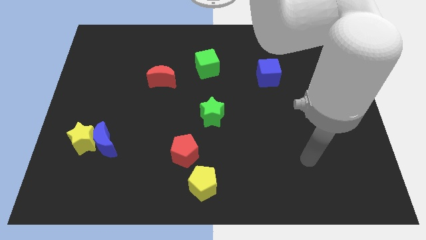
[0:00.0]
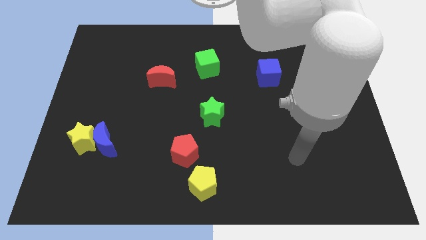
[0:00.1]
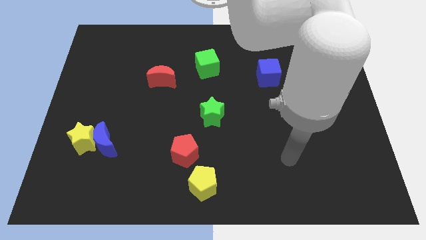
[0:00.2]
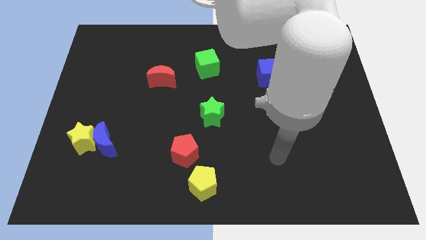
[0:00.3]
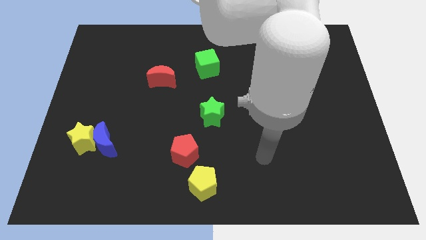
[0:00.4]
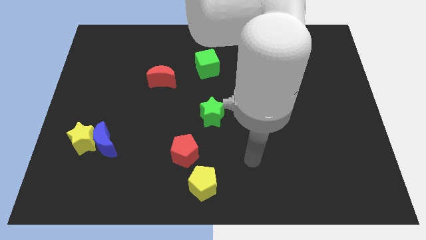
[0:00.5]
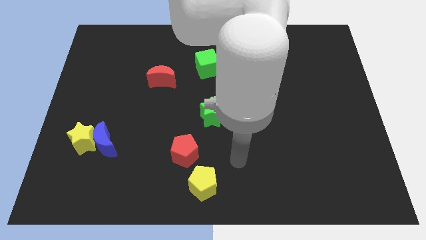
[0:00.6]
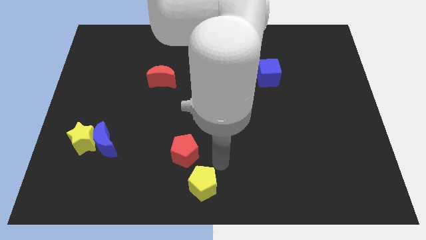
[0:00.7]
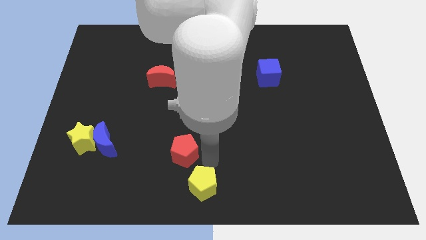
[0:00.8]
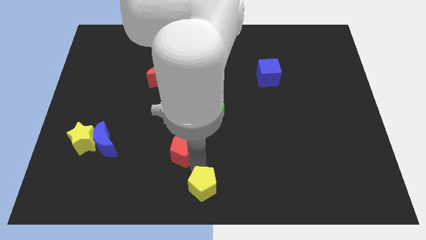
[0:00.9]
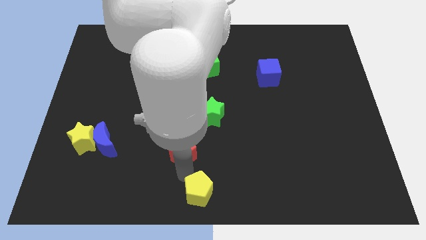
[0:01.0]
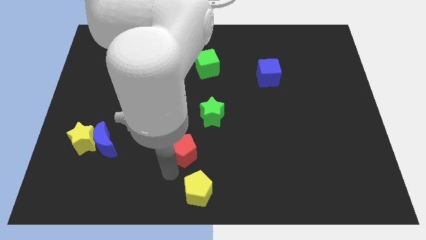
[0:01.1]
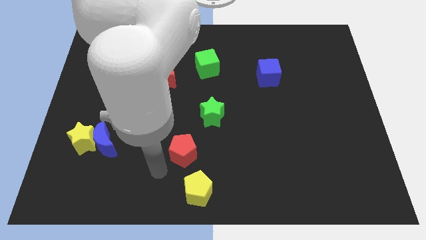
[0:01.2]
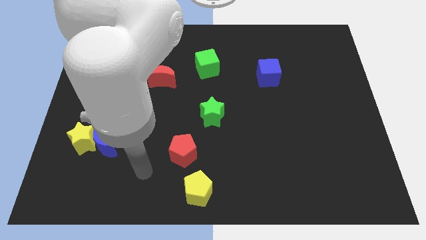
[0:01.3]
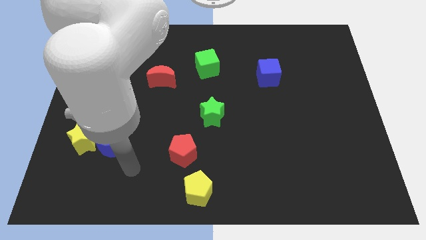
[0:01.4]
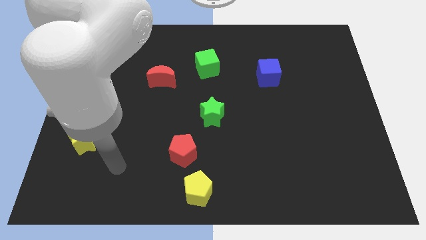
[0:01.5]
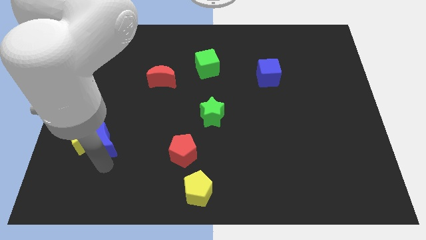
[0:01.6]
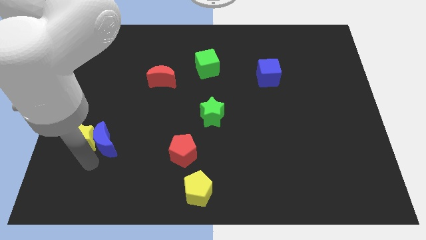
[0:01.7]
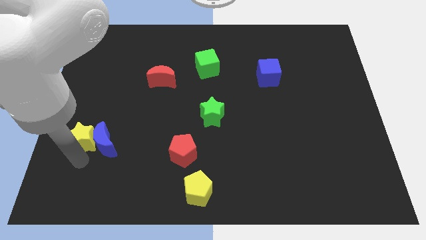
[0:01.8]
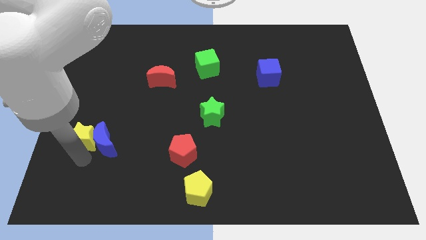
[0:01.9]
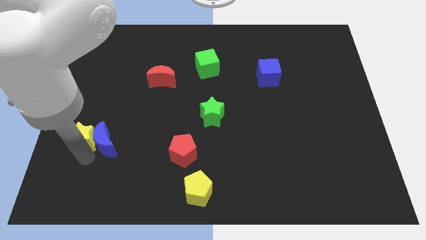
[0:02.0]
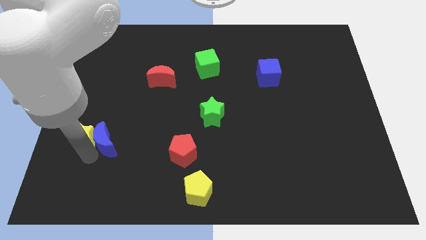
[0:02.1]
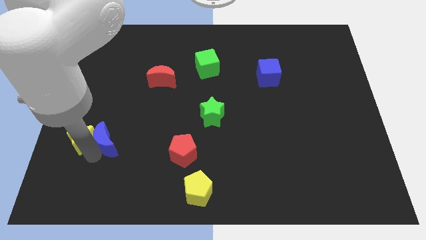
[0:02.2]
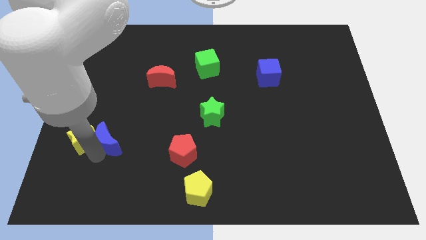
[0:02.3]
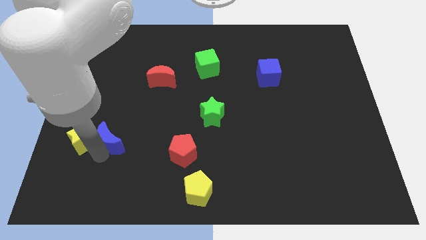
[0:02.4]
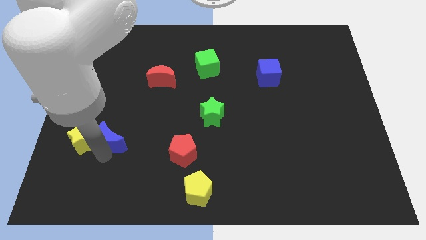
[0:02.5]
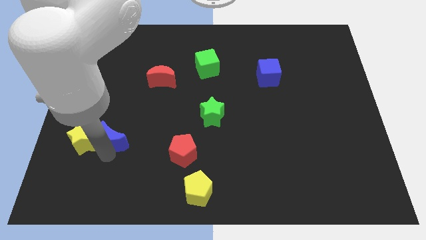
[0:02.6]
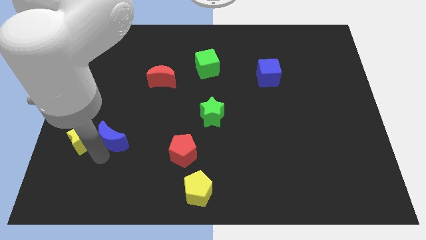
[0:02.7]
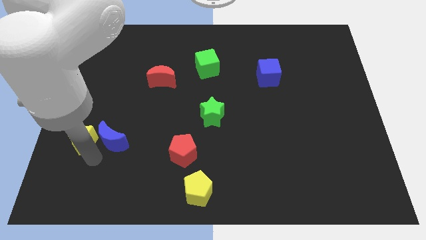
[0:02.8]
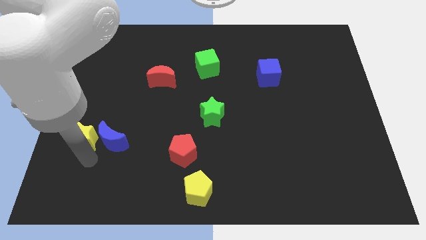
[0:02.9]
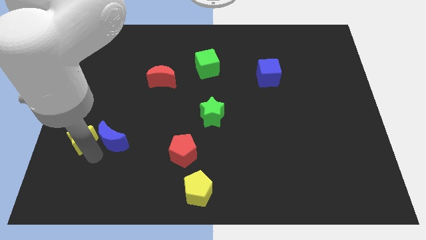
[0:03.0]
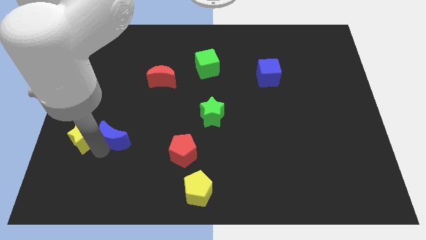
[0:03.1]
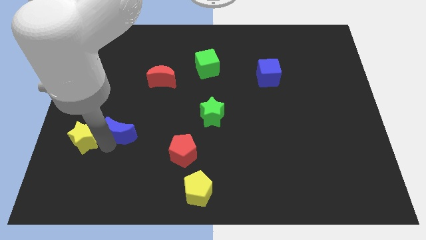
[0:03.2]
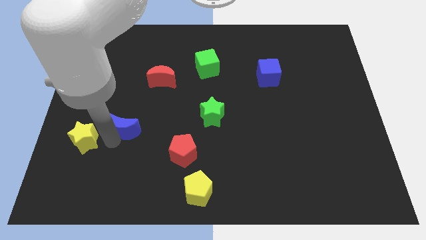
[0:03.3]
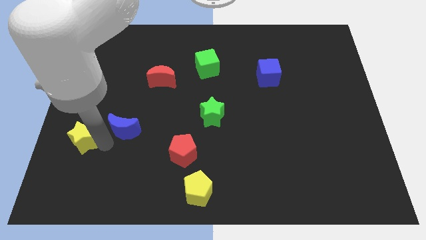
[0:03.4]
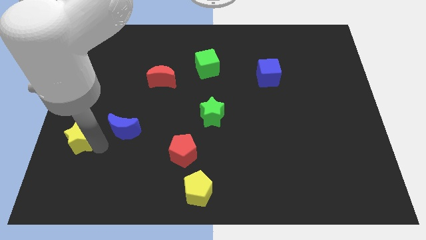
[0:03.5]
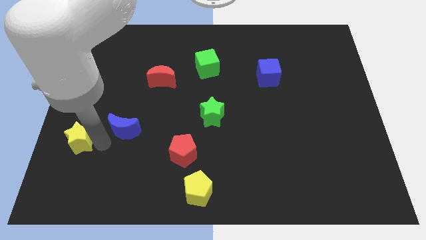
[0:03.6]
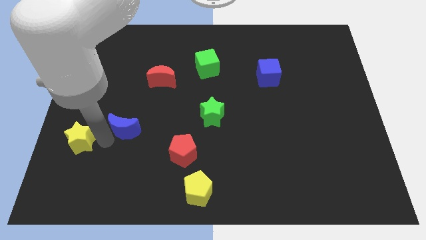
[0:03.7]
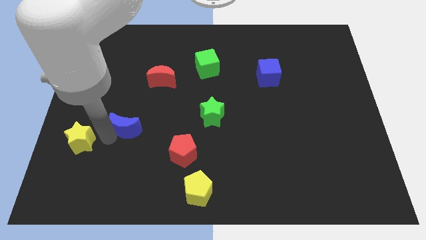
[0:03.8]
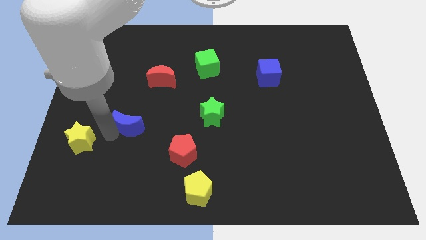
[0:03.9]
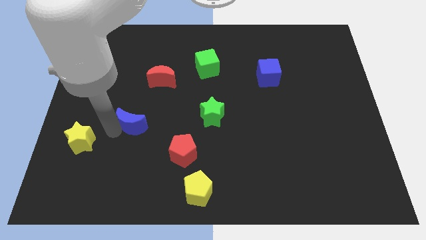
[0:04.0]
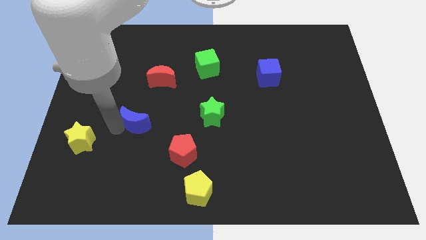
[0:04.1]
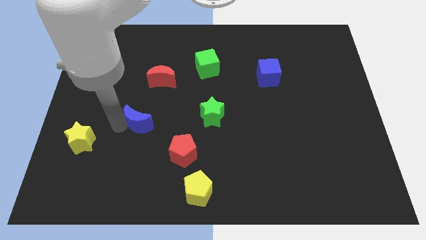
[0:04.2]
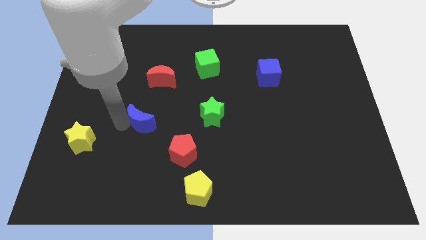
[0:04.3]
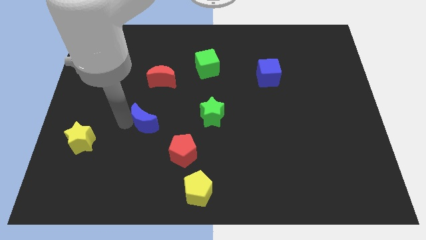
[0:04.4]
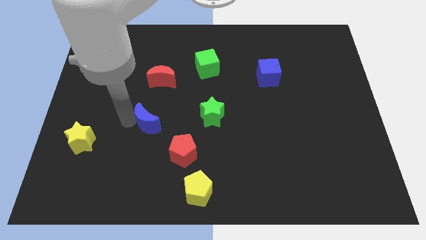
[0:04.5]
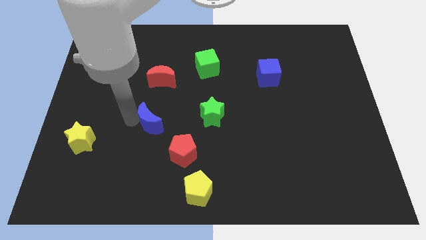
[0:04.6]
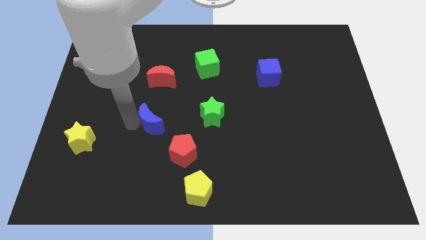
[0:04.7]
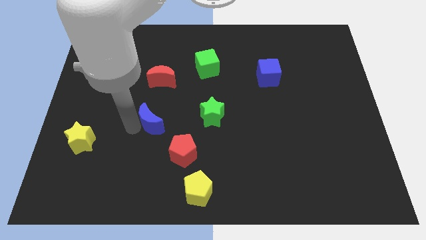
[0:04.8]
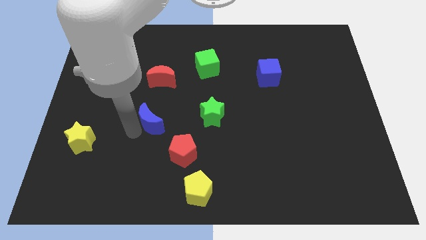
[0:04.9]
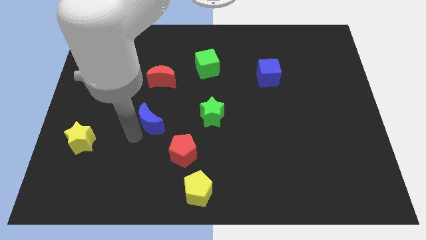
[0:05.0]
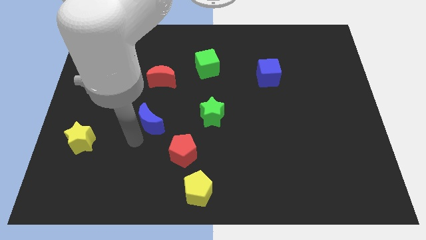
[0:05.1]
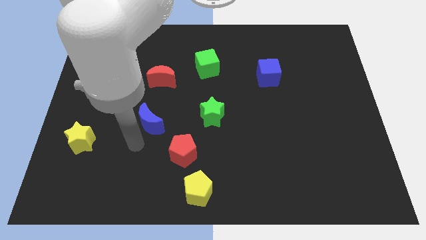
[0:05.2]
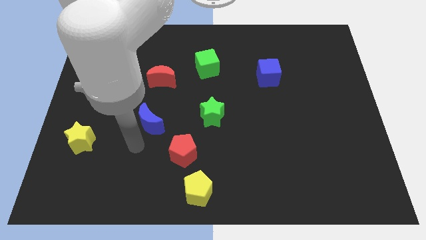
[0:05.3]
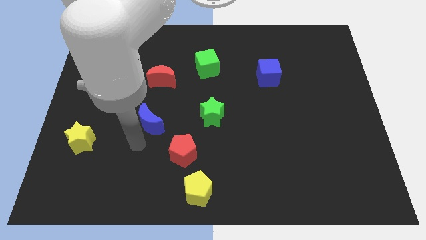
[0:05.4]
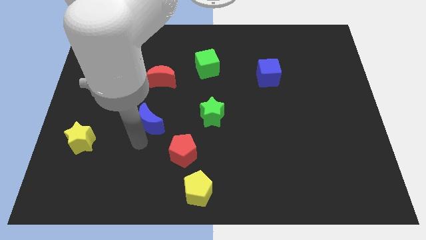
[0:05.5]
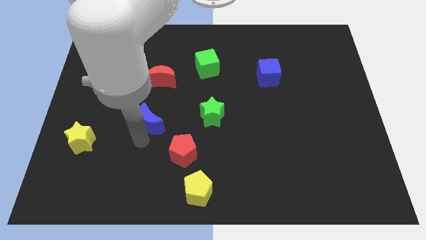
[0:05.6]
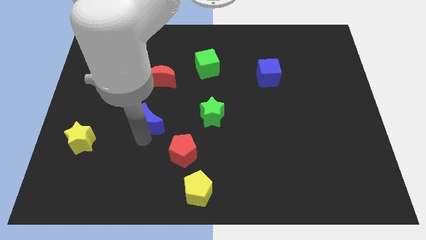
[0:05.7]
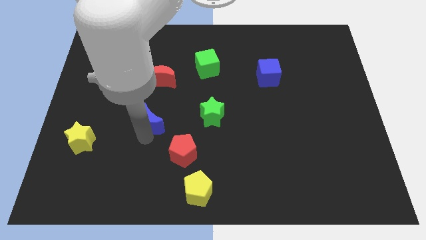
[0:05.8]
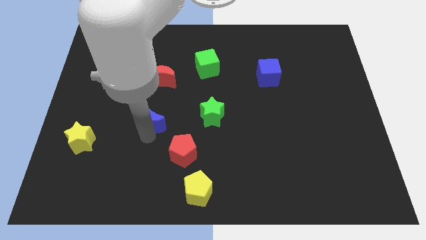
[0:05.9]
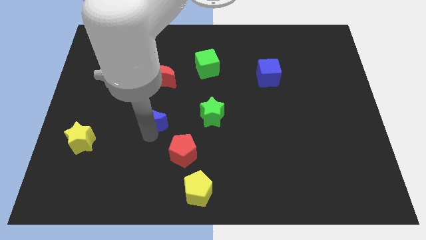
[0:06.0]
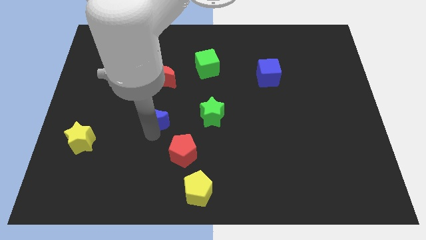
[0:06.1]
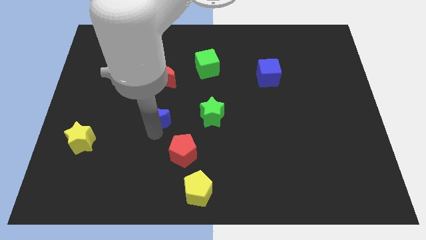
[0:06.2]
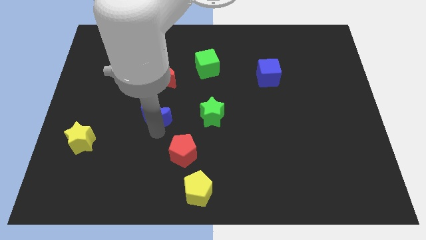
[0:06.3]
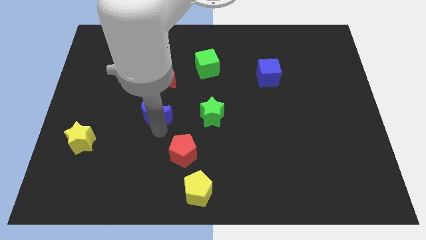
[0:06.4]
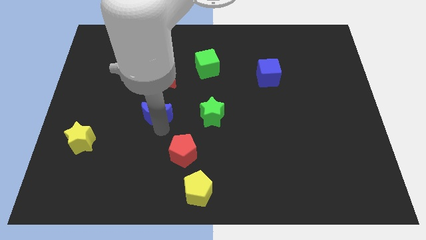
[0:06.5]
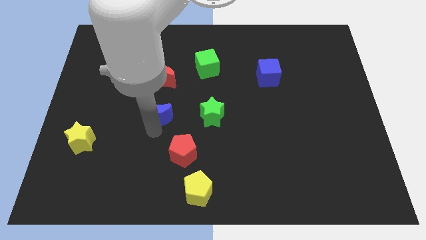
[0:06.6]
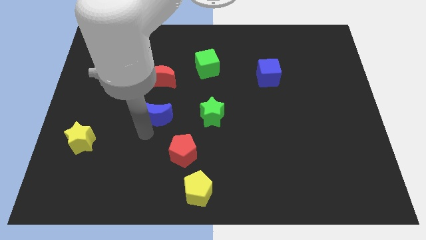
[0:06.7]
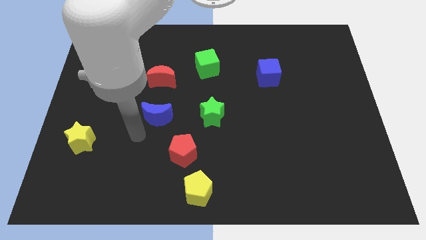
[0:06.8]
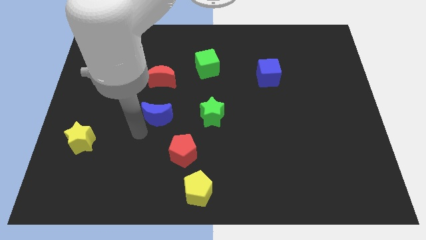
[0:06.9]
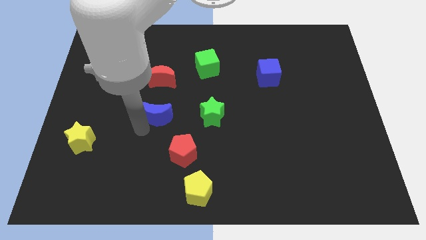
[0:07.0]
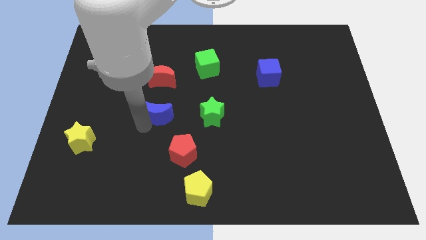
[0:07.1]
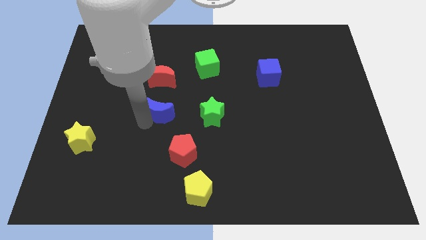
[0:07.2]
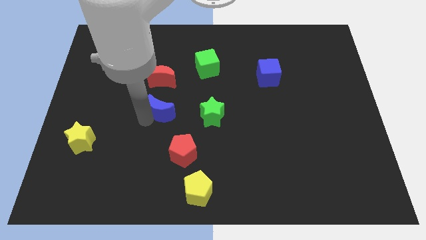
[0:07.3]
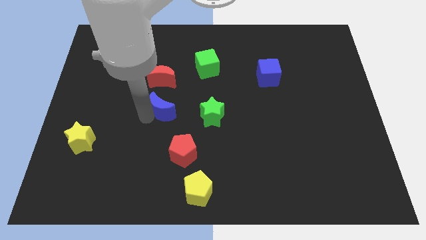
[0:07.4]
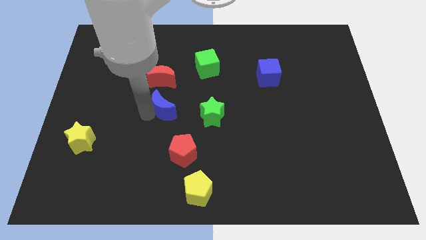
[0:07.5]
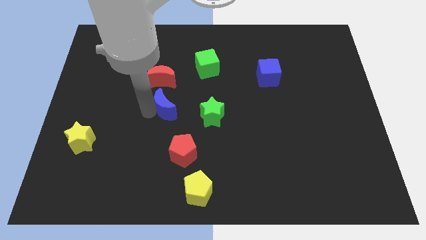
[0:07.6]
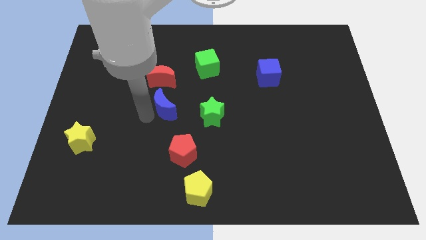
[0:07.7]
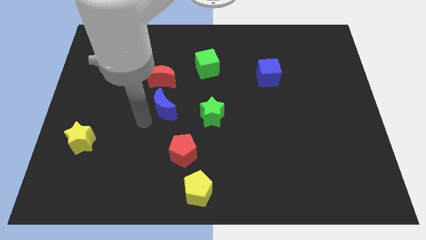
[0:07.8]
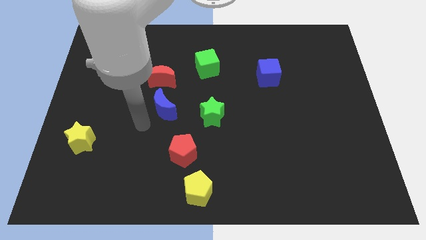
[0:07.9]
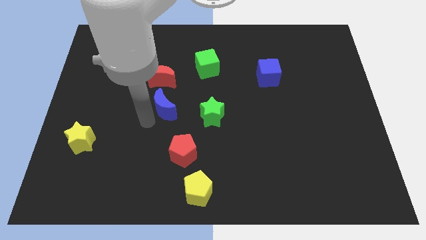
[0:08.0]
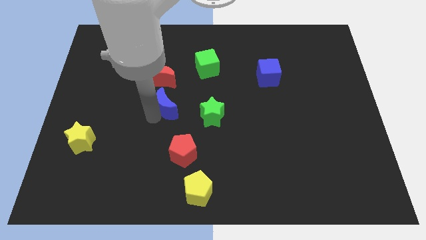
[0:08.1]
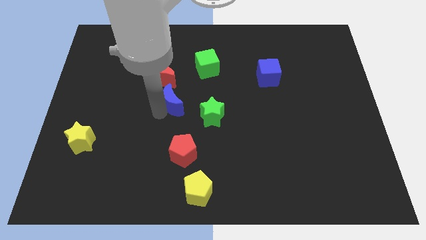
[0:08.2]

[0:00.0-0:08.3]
move the blue moon to the bottom right of the red moon
